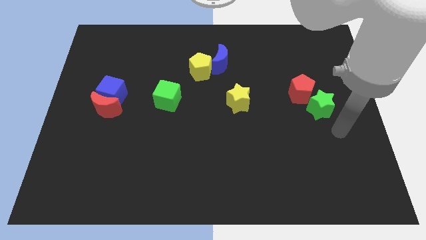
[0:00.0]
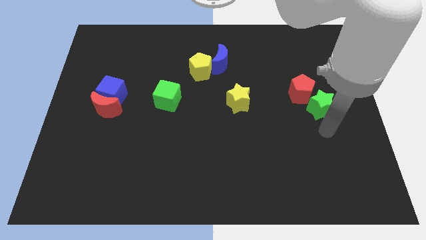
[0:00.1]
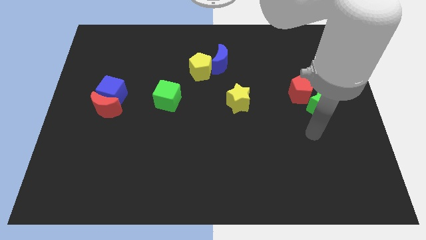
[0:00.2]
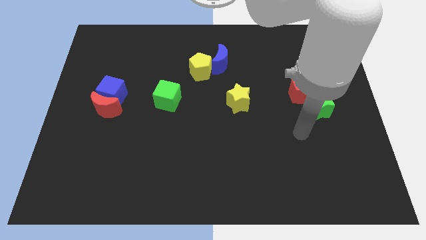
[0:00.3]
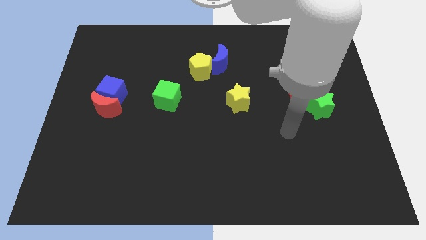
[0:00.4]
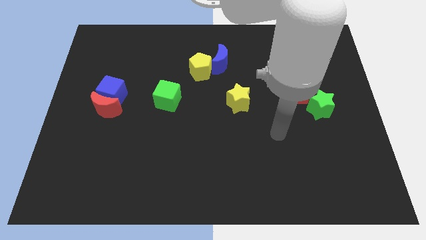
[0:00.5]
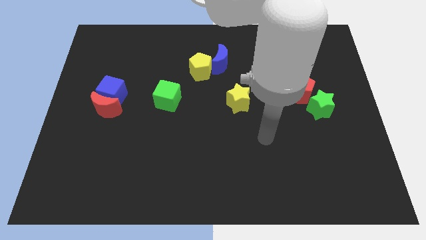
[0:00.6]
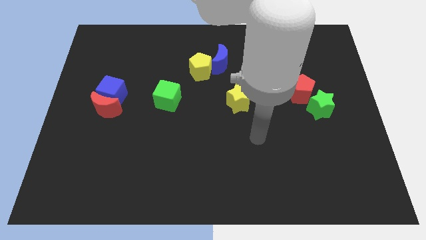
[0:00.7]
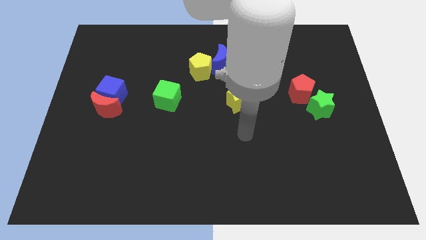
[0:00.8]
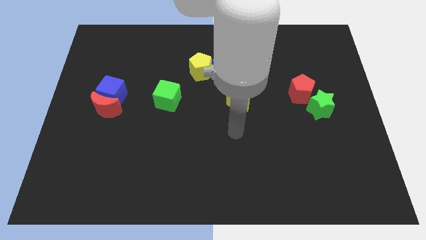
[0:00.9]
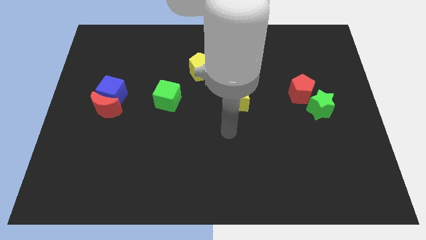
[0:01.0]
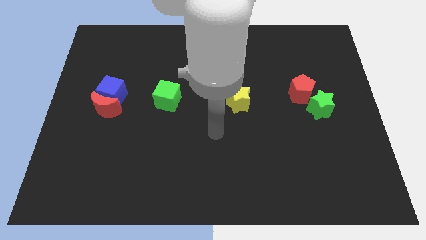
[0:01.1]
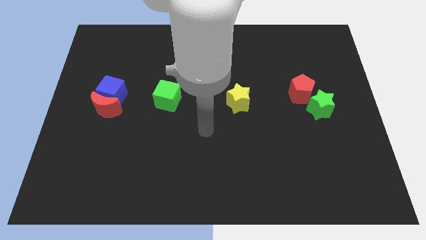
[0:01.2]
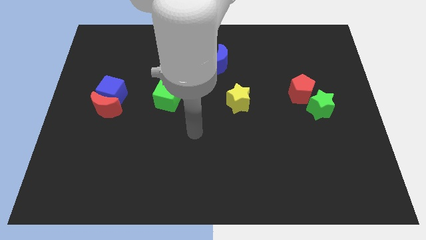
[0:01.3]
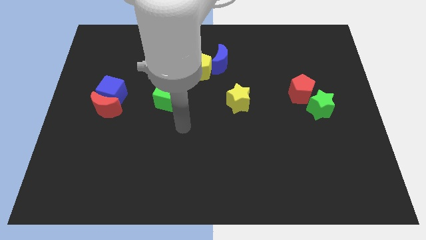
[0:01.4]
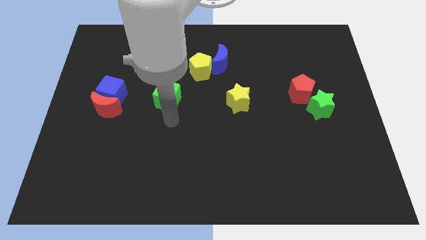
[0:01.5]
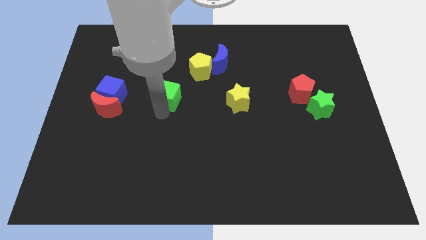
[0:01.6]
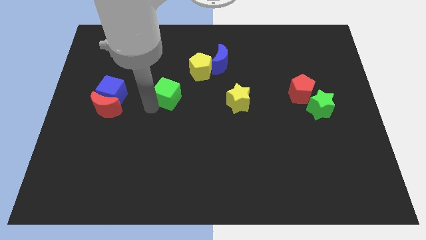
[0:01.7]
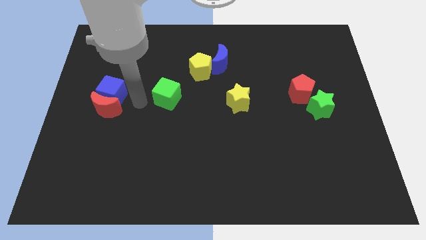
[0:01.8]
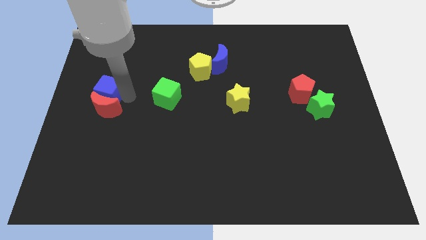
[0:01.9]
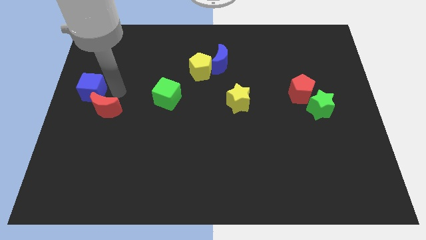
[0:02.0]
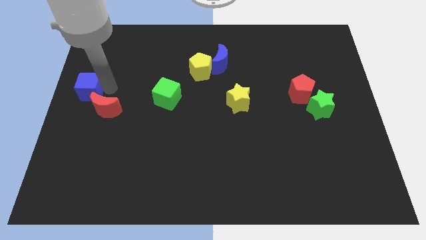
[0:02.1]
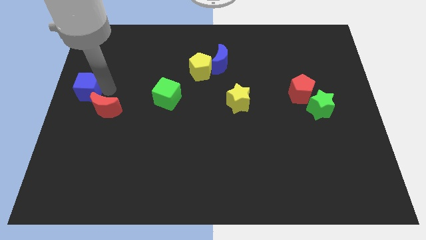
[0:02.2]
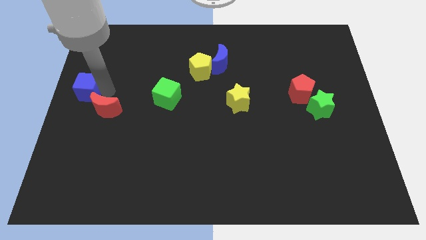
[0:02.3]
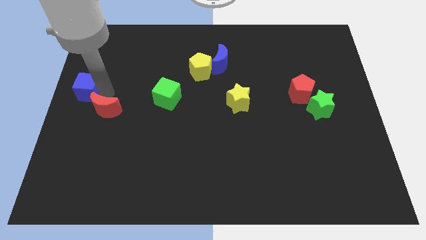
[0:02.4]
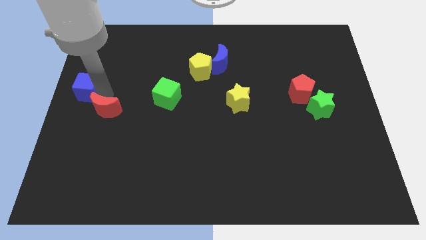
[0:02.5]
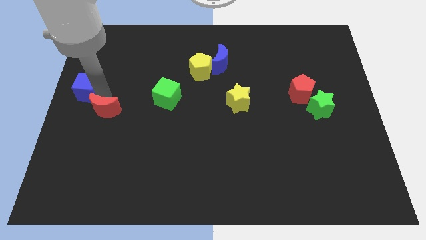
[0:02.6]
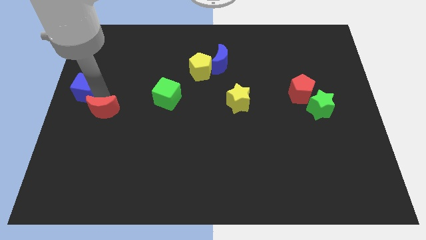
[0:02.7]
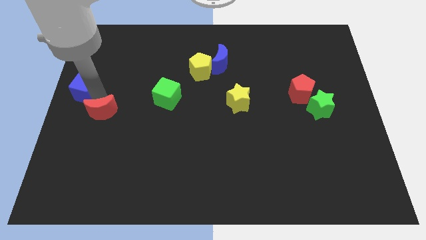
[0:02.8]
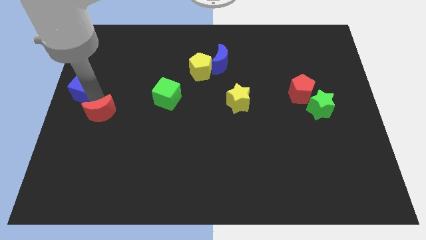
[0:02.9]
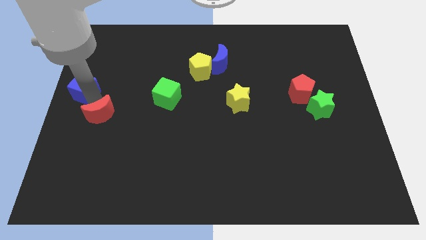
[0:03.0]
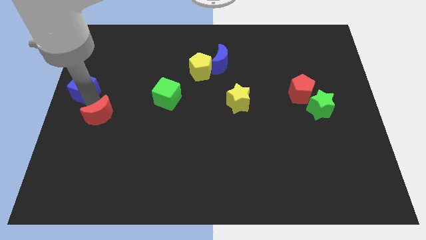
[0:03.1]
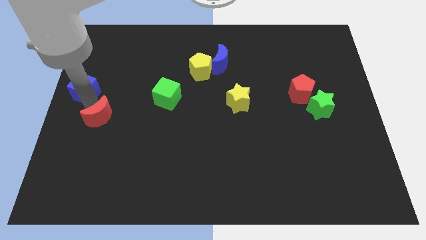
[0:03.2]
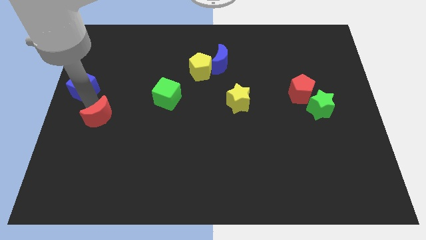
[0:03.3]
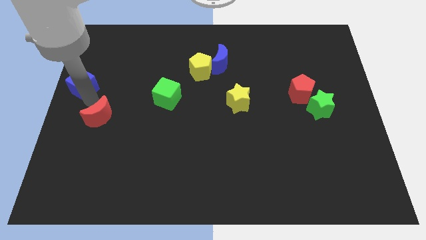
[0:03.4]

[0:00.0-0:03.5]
move the red moon away from the blue cube

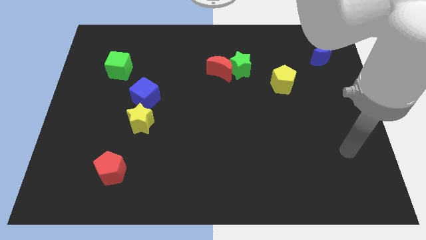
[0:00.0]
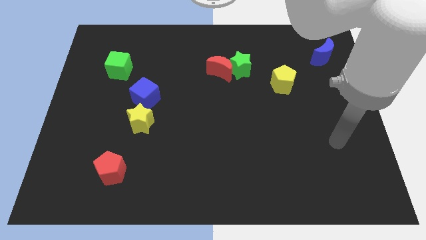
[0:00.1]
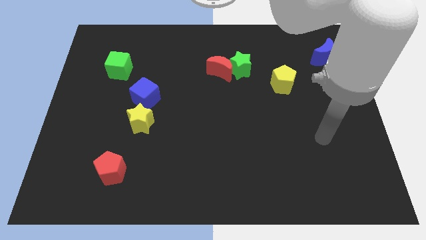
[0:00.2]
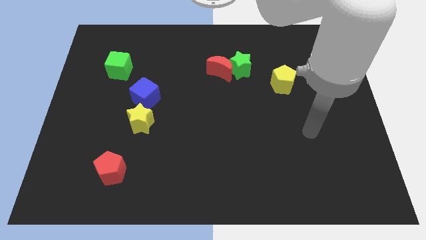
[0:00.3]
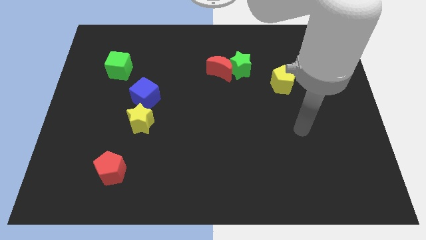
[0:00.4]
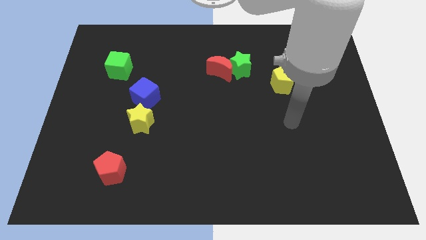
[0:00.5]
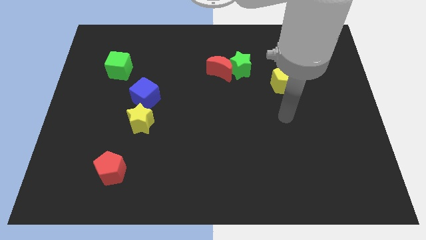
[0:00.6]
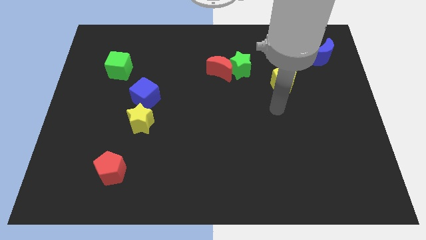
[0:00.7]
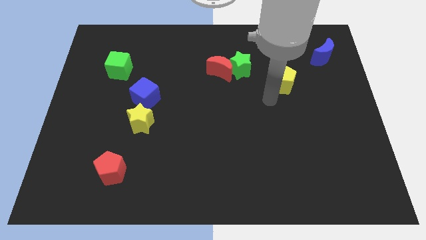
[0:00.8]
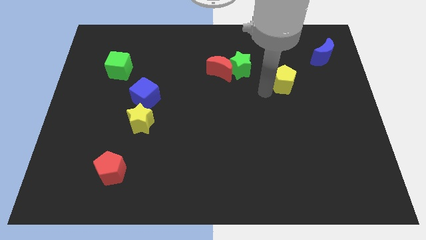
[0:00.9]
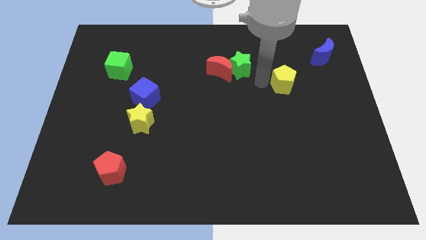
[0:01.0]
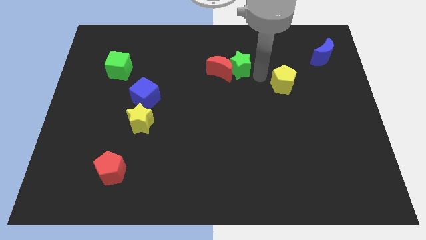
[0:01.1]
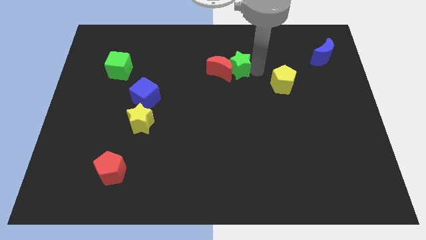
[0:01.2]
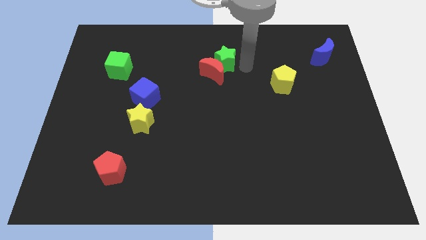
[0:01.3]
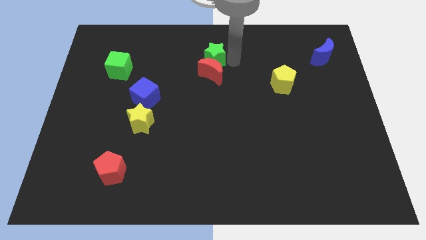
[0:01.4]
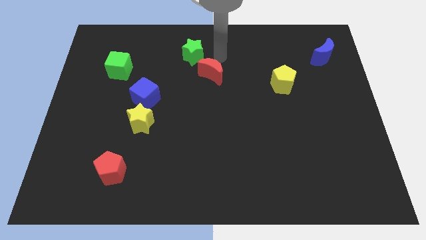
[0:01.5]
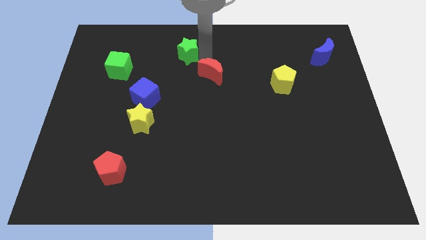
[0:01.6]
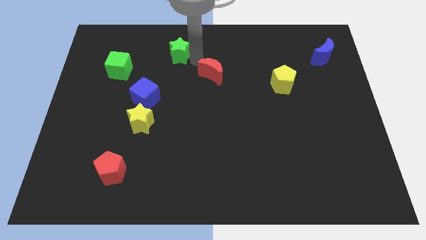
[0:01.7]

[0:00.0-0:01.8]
pull the red moon apart from the green star

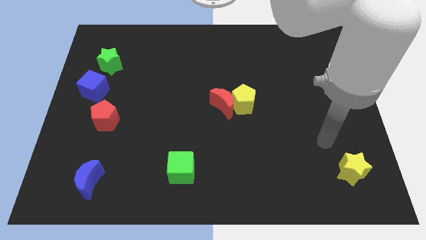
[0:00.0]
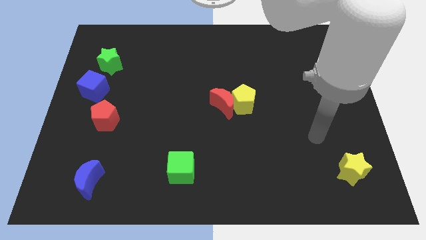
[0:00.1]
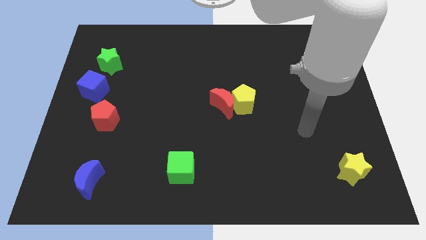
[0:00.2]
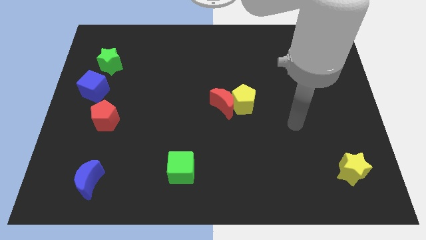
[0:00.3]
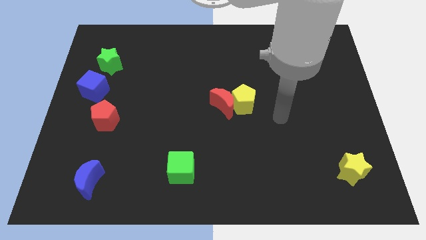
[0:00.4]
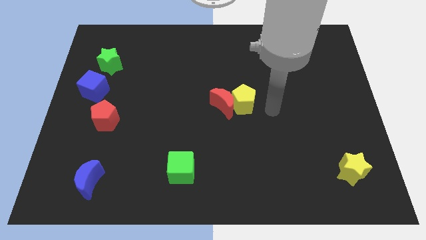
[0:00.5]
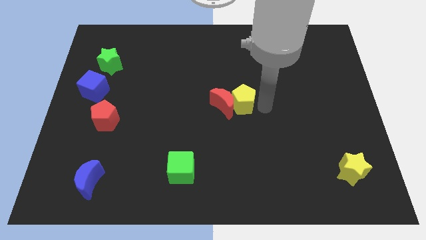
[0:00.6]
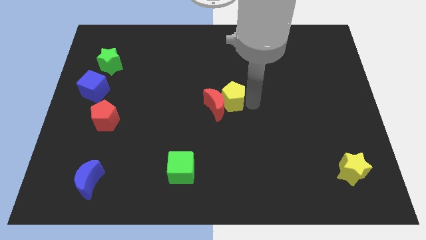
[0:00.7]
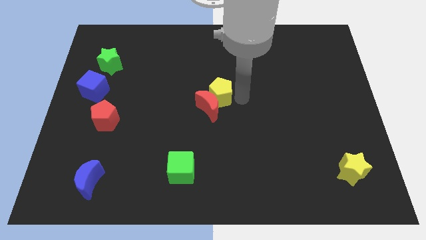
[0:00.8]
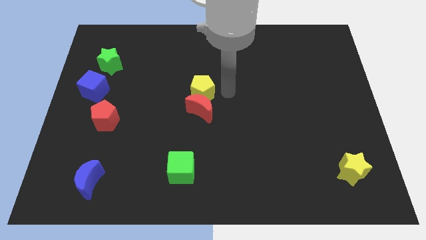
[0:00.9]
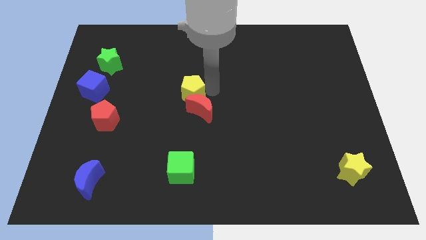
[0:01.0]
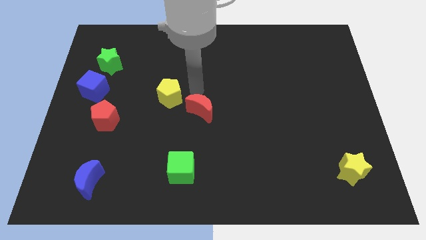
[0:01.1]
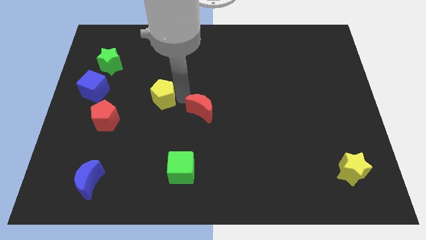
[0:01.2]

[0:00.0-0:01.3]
move the red moon away from the yellow pentagon

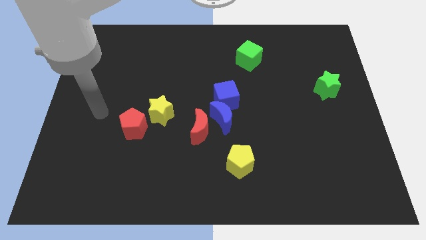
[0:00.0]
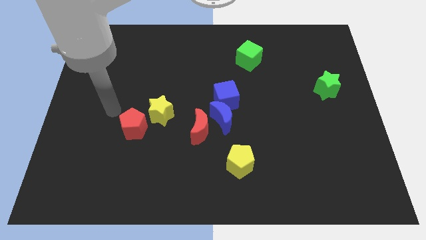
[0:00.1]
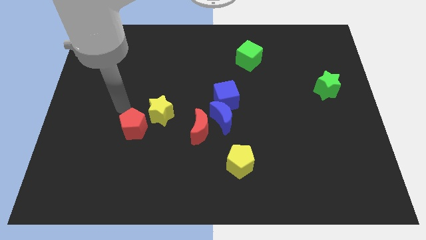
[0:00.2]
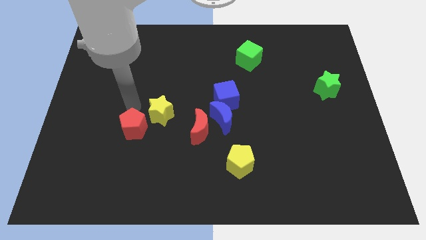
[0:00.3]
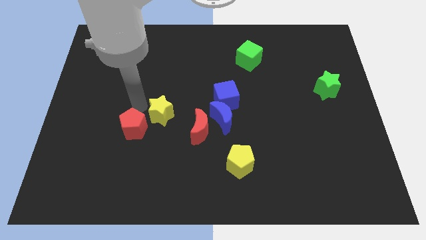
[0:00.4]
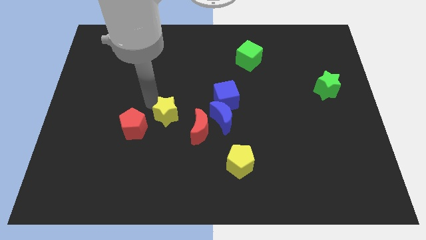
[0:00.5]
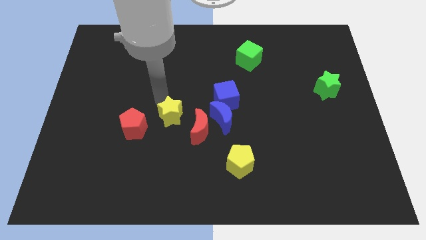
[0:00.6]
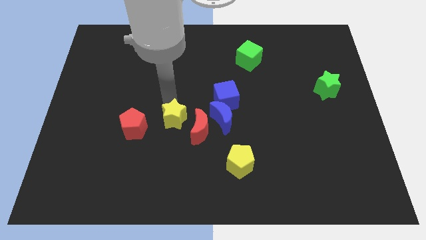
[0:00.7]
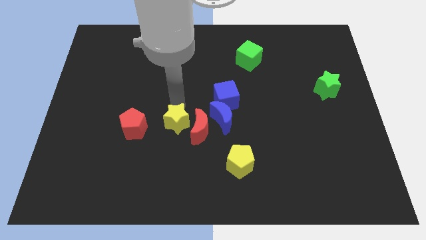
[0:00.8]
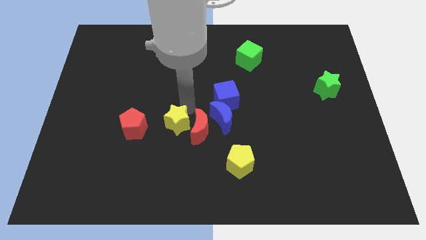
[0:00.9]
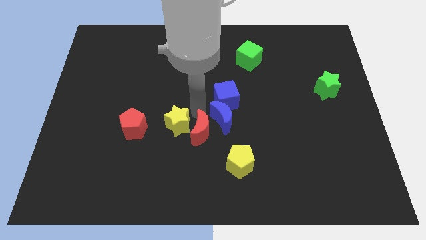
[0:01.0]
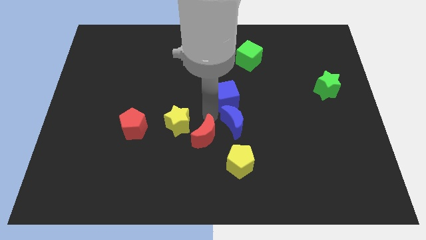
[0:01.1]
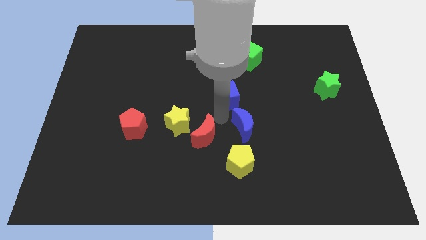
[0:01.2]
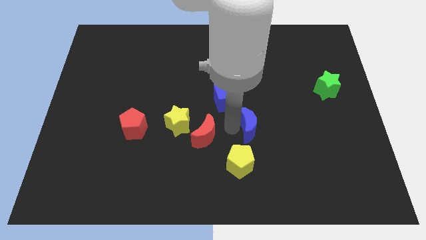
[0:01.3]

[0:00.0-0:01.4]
move the red moon away from the blue moon

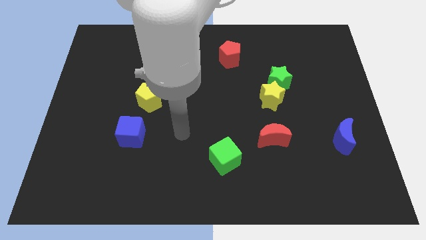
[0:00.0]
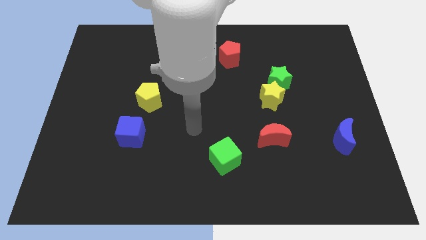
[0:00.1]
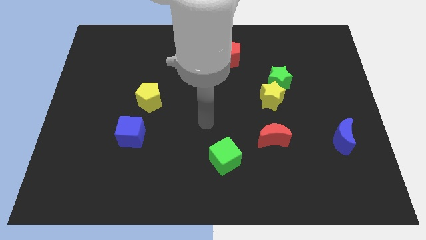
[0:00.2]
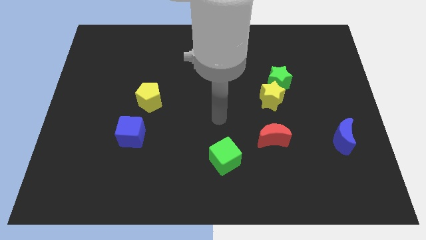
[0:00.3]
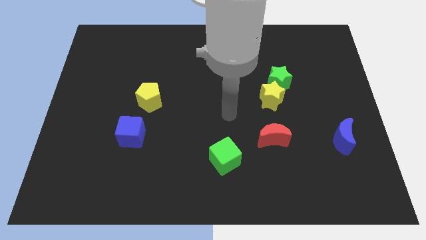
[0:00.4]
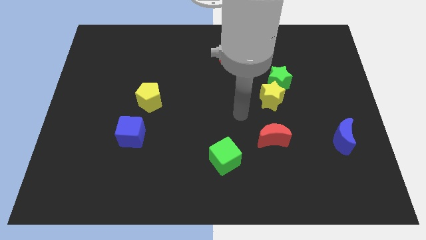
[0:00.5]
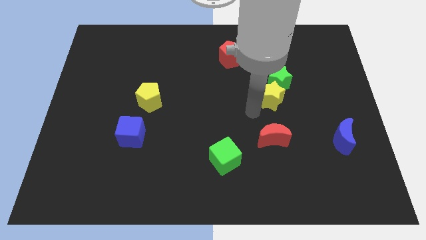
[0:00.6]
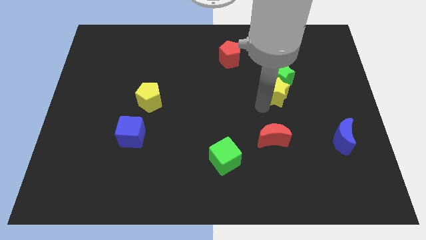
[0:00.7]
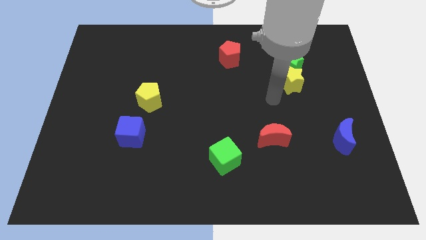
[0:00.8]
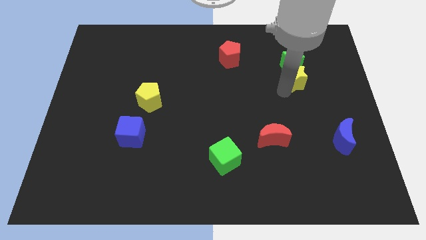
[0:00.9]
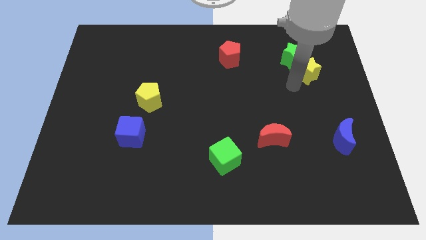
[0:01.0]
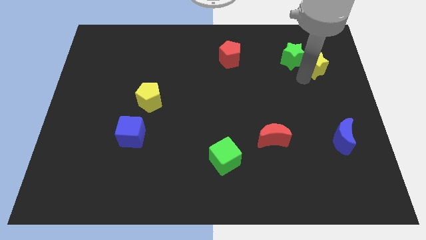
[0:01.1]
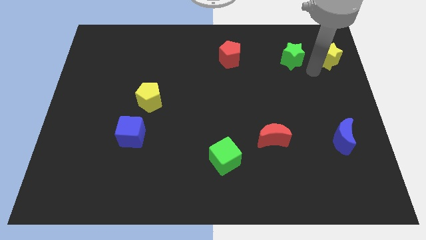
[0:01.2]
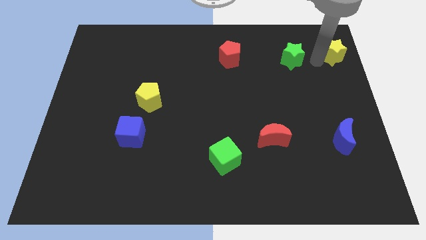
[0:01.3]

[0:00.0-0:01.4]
pull the green star apart from the yellow star
